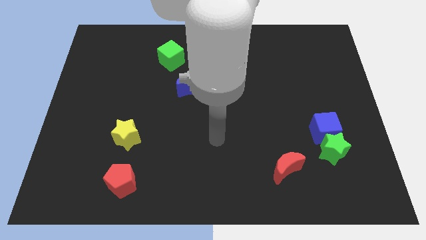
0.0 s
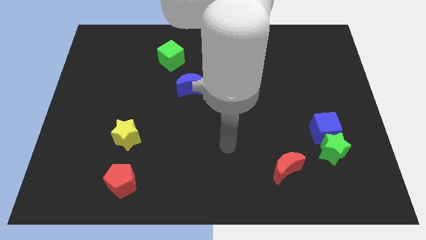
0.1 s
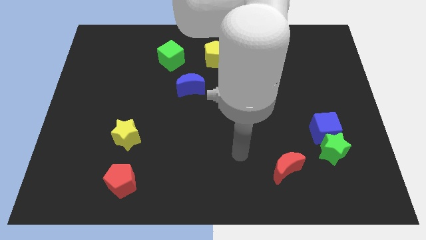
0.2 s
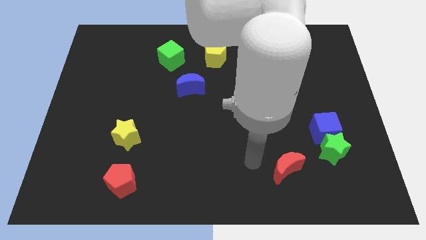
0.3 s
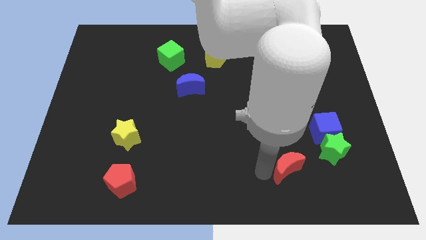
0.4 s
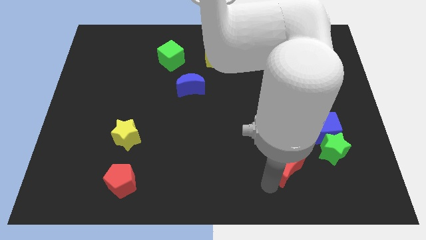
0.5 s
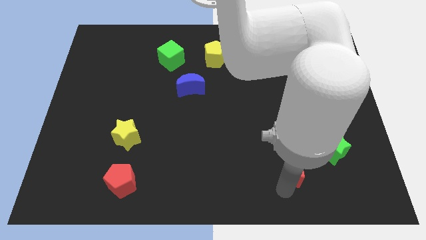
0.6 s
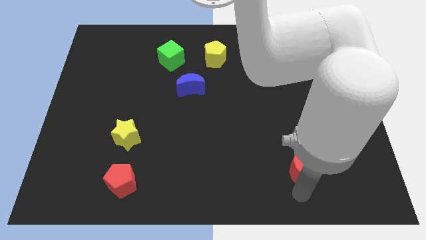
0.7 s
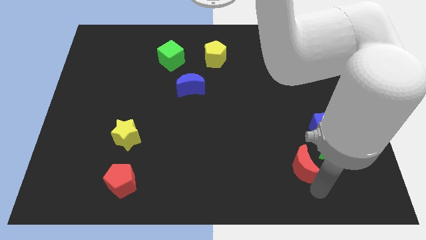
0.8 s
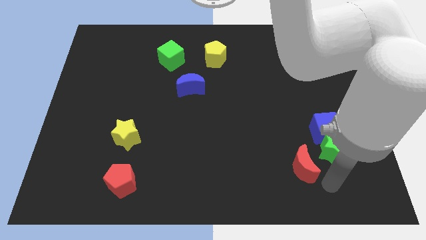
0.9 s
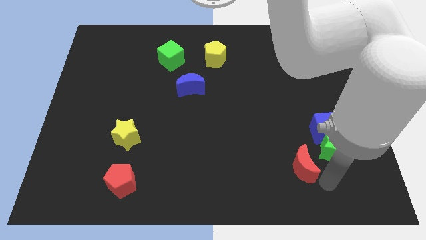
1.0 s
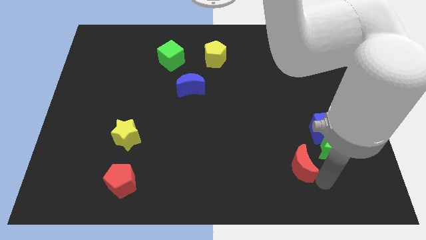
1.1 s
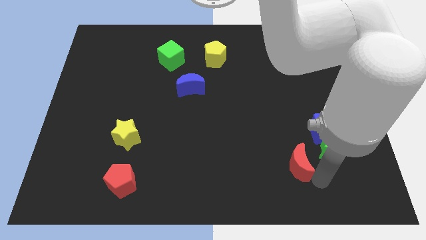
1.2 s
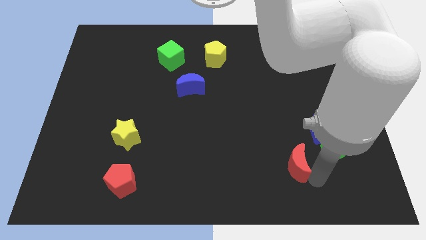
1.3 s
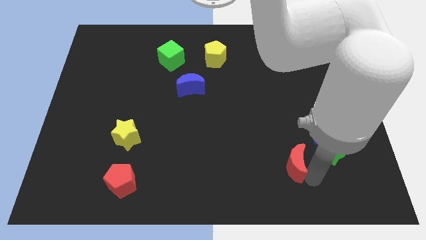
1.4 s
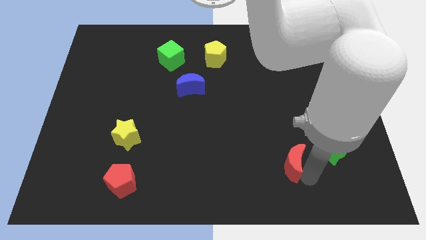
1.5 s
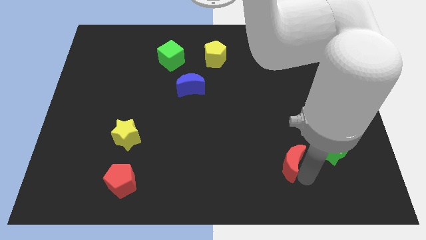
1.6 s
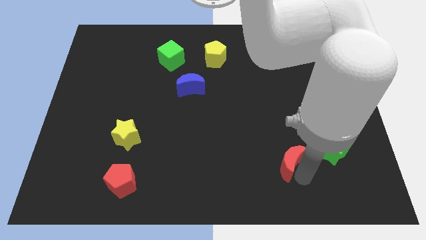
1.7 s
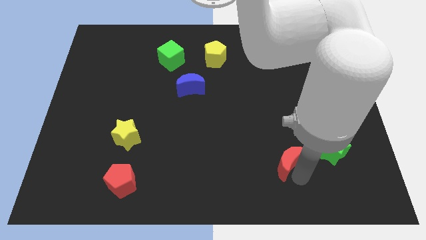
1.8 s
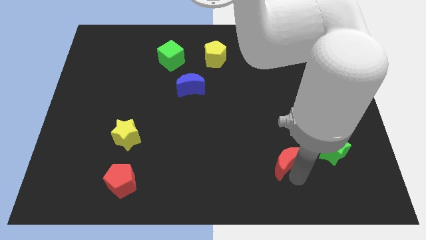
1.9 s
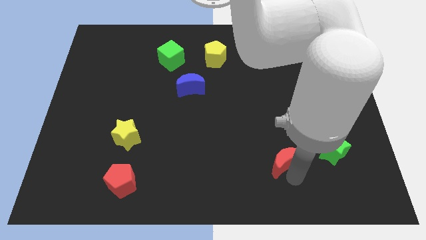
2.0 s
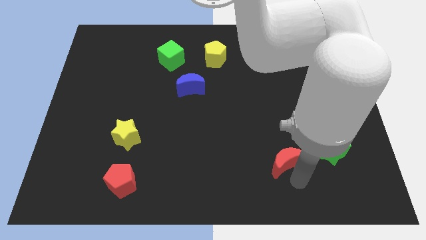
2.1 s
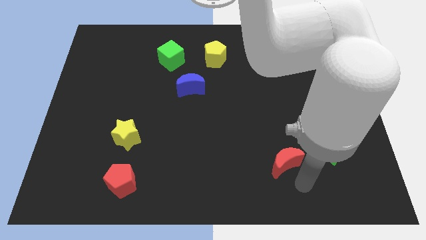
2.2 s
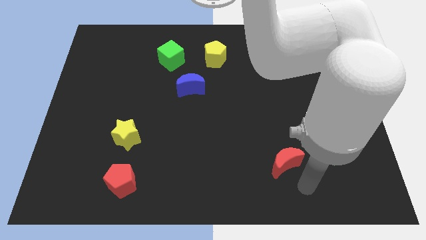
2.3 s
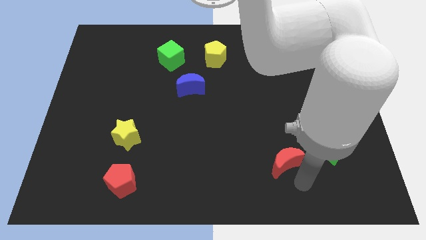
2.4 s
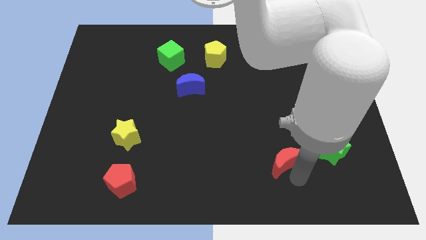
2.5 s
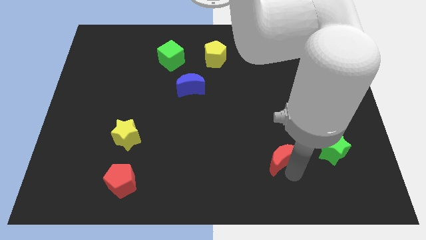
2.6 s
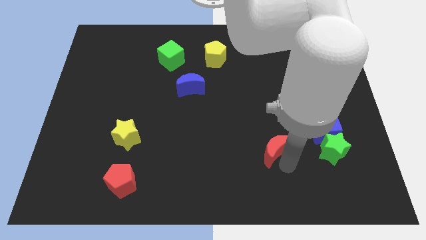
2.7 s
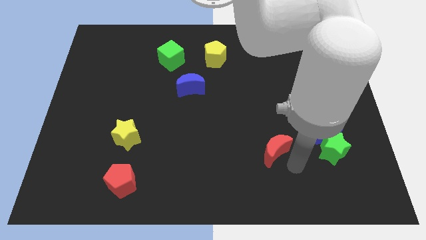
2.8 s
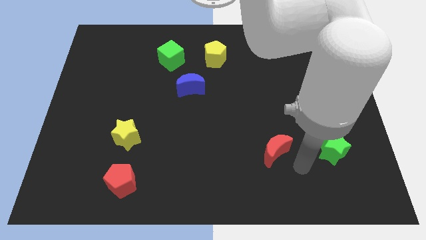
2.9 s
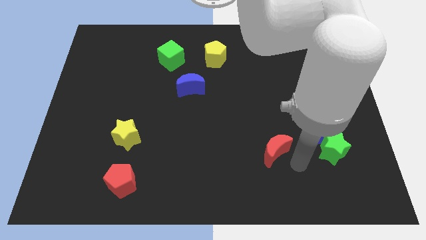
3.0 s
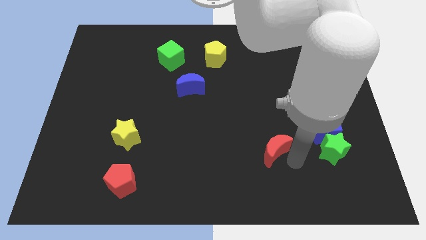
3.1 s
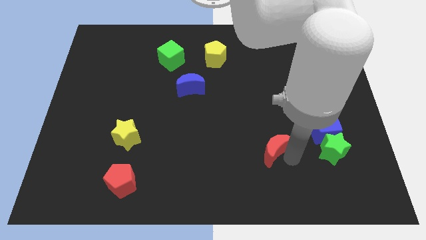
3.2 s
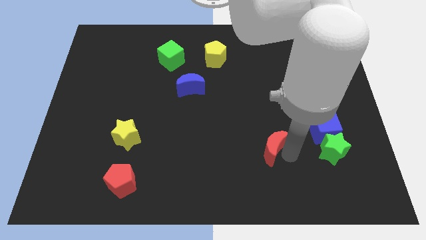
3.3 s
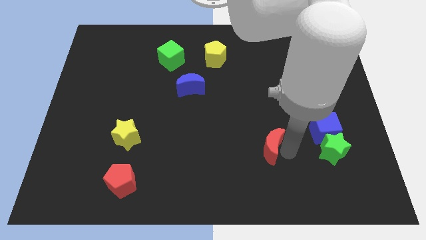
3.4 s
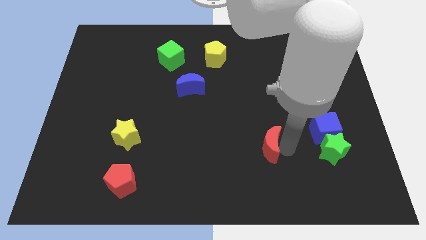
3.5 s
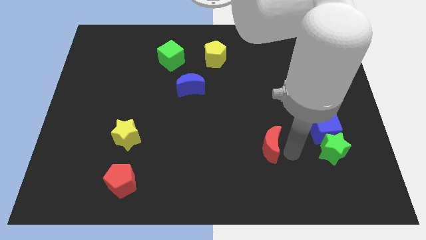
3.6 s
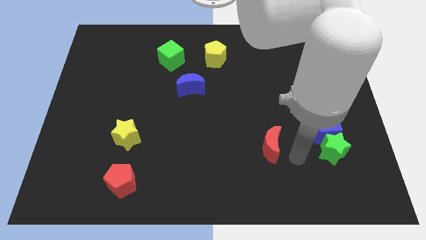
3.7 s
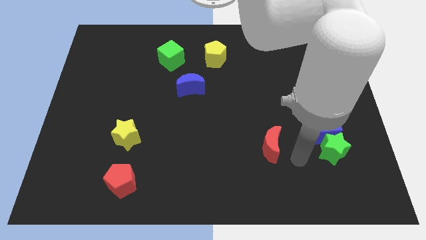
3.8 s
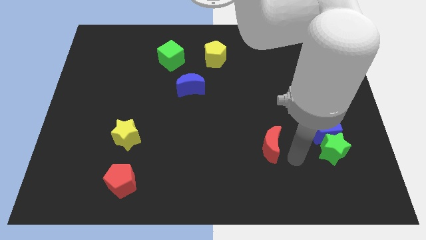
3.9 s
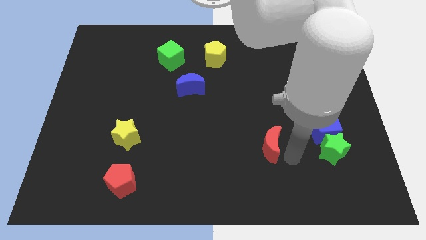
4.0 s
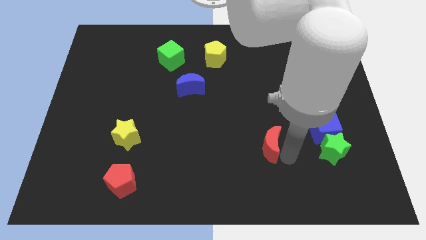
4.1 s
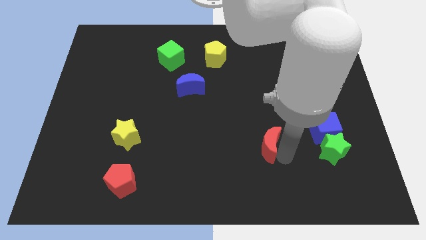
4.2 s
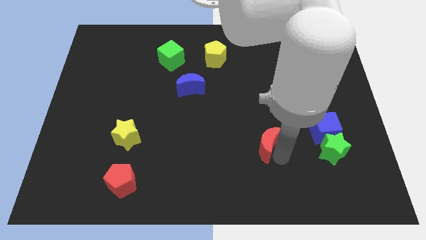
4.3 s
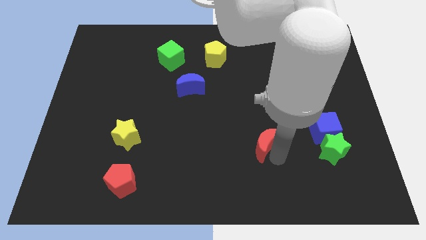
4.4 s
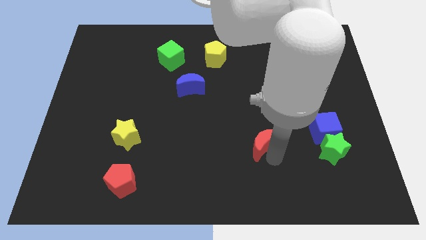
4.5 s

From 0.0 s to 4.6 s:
slightly push the red moon upwards and to the left diagonally

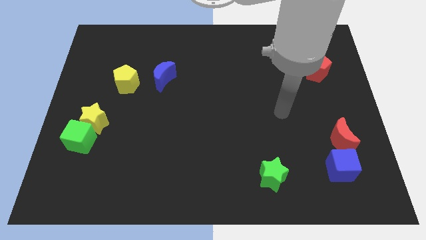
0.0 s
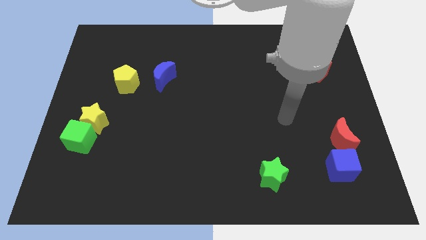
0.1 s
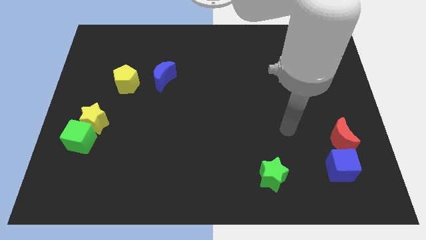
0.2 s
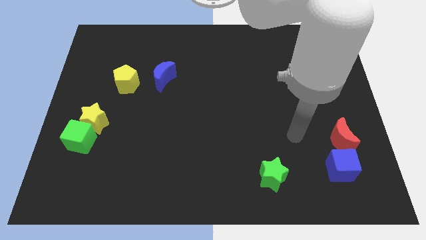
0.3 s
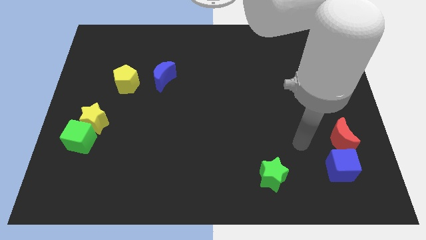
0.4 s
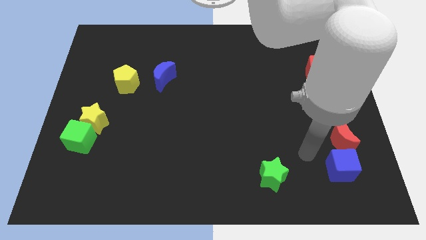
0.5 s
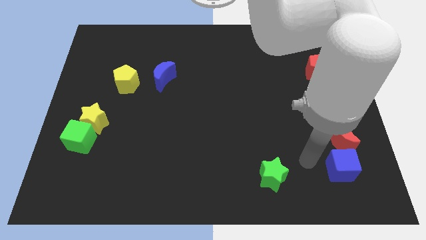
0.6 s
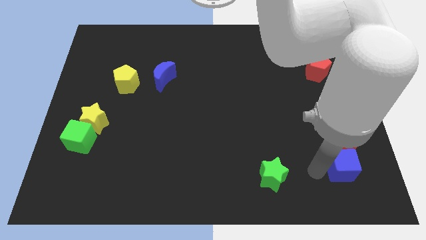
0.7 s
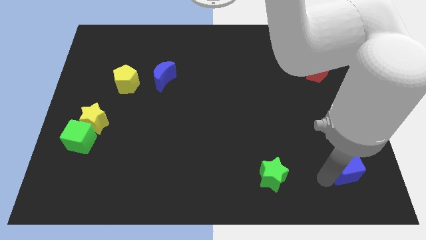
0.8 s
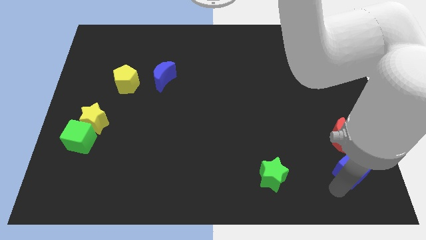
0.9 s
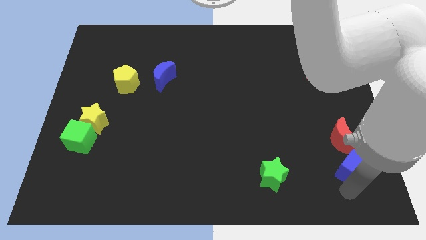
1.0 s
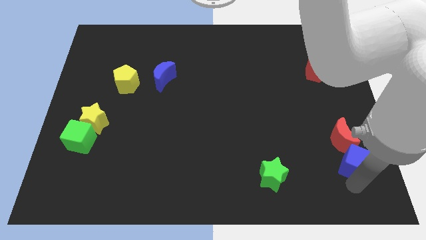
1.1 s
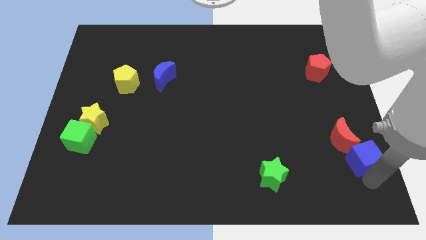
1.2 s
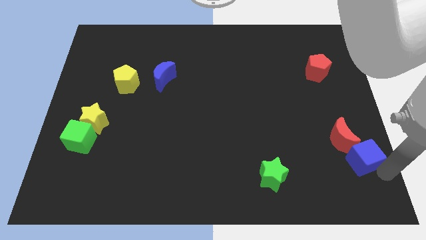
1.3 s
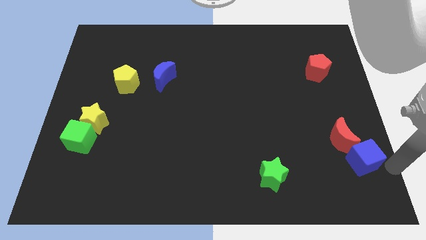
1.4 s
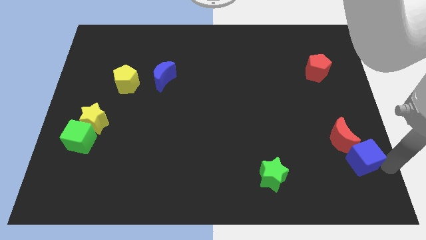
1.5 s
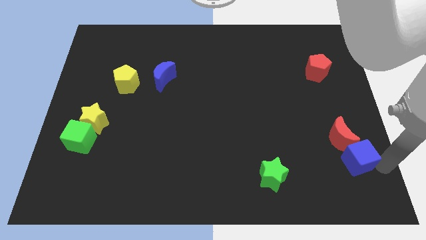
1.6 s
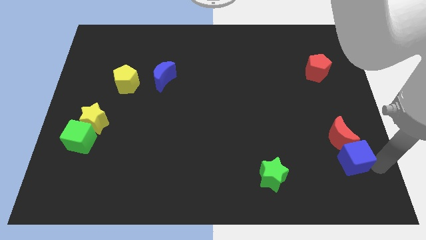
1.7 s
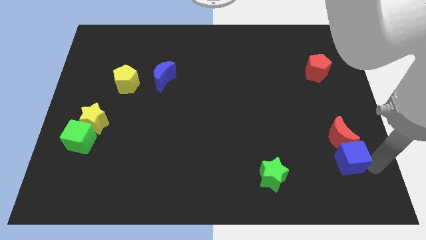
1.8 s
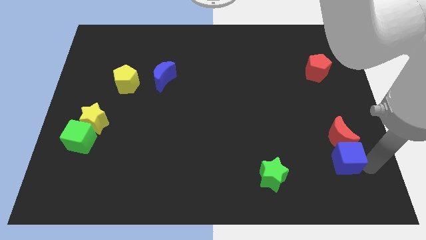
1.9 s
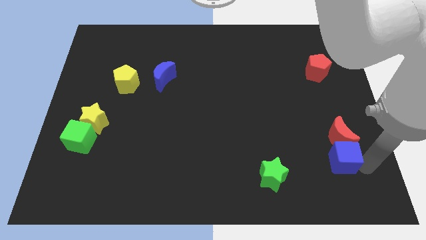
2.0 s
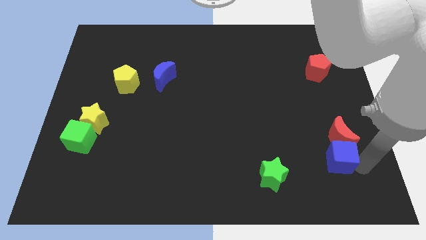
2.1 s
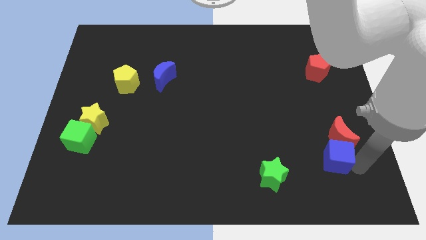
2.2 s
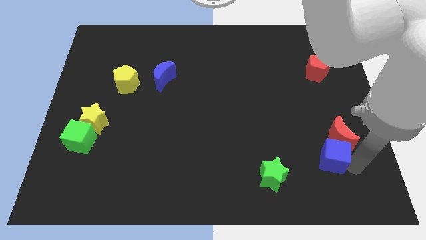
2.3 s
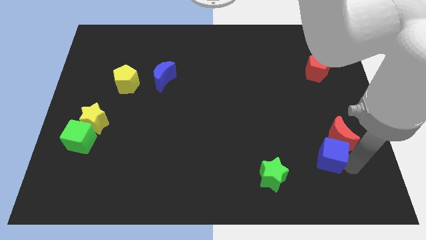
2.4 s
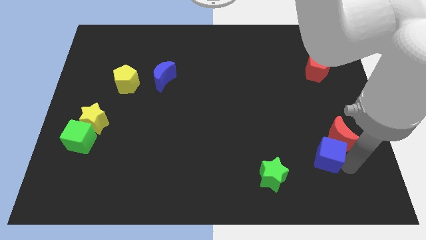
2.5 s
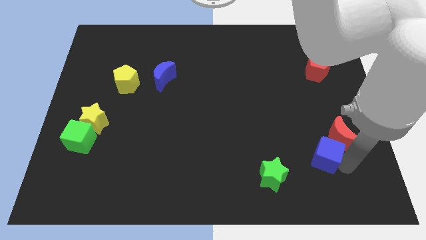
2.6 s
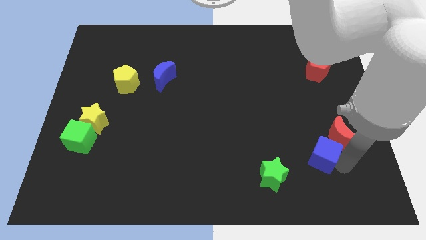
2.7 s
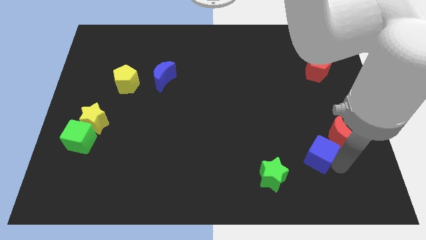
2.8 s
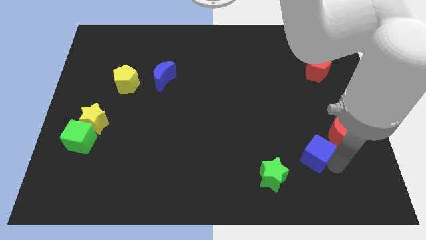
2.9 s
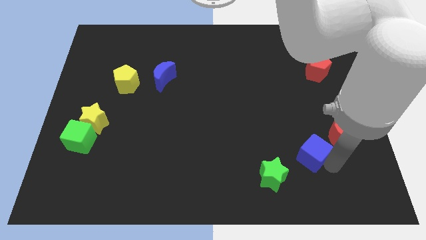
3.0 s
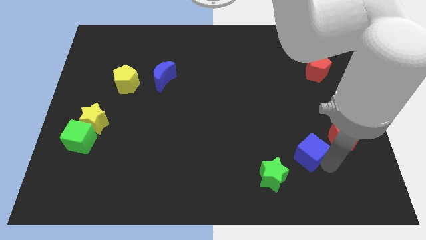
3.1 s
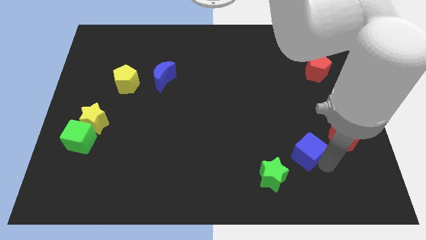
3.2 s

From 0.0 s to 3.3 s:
slide the blue cube up and left somewhat

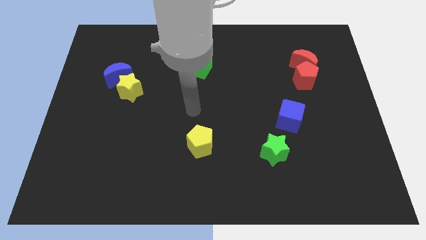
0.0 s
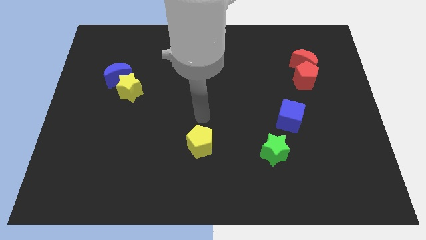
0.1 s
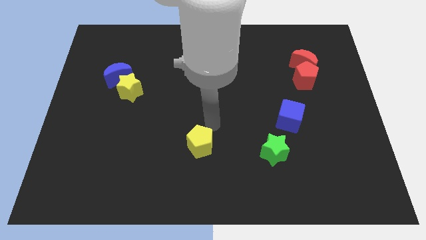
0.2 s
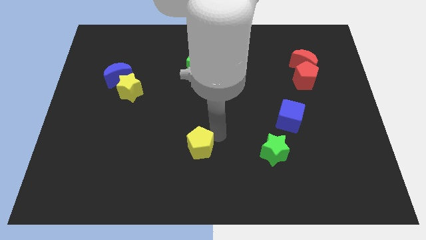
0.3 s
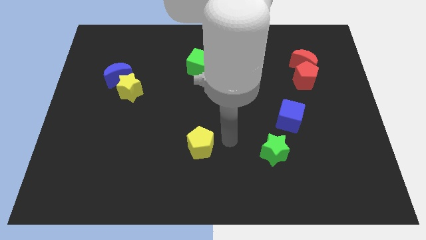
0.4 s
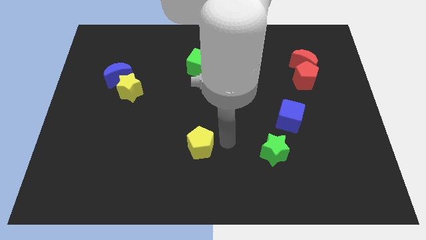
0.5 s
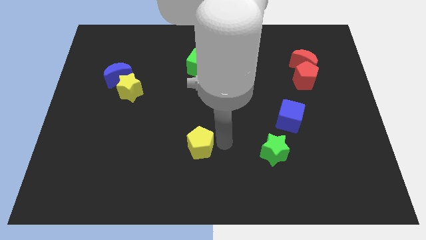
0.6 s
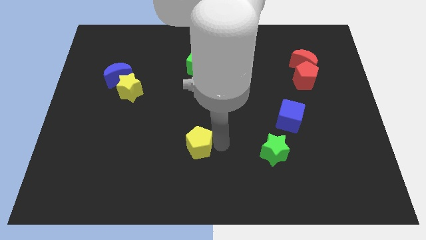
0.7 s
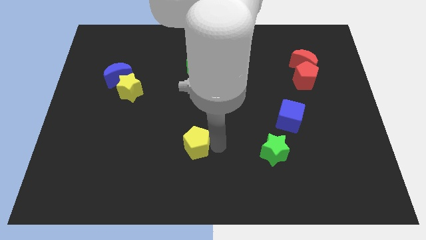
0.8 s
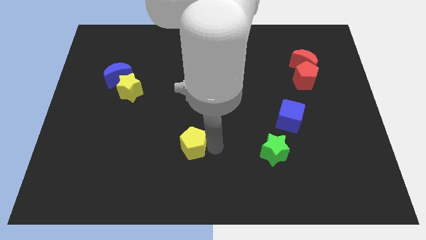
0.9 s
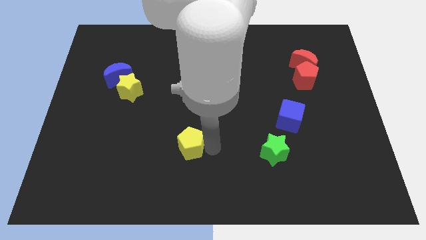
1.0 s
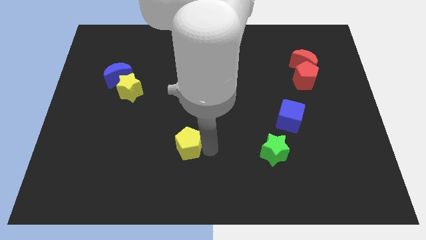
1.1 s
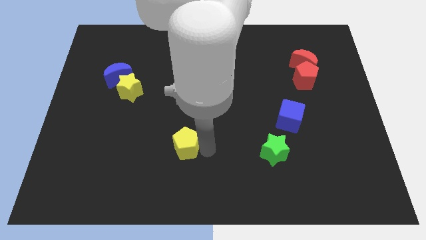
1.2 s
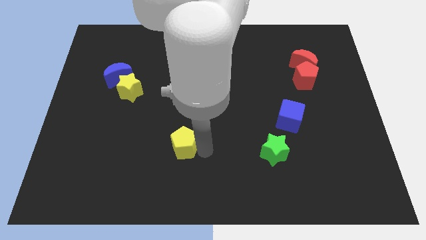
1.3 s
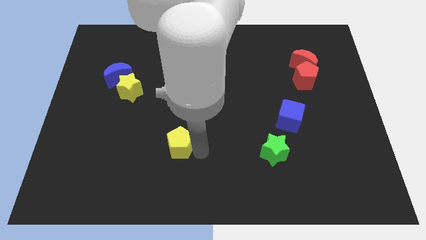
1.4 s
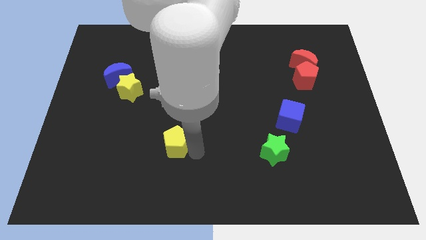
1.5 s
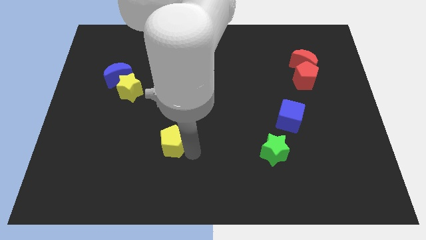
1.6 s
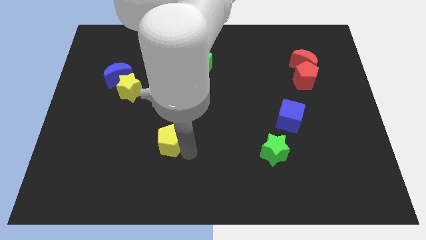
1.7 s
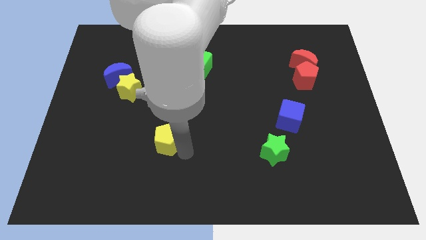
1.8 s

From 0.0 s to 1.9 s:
slide the yellow pentagon left slightly
